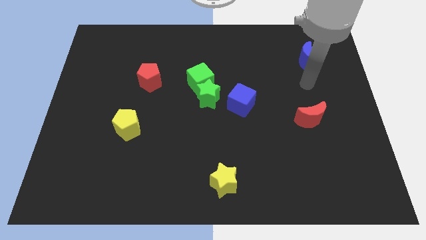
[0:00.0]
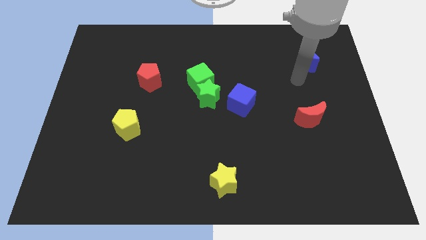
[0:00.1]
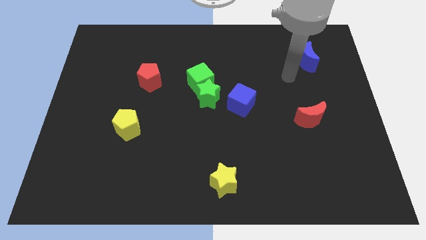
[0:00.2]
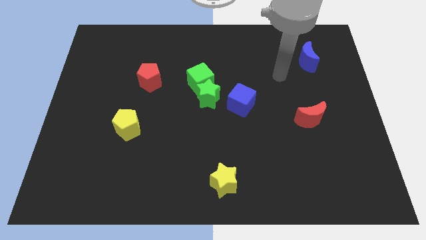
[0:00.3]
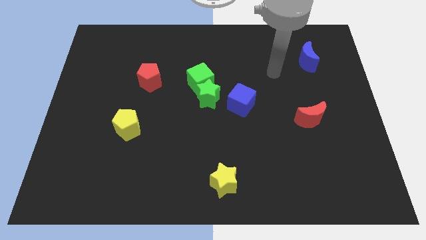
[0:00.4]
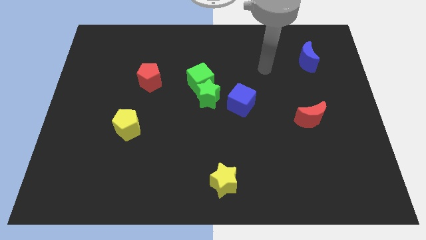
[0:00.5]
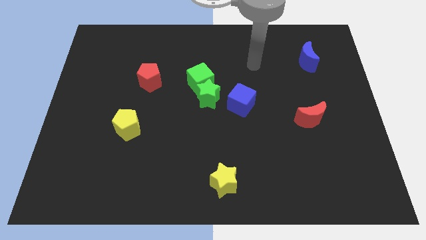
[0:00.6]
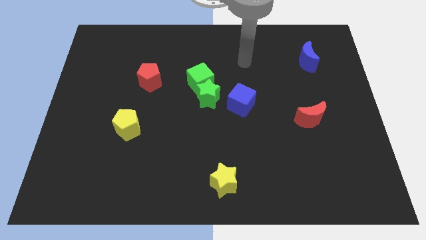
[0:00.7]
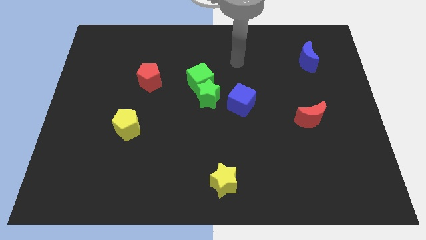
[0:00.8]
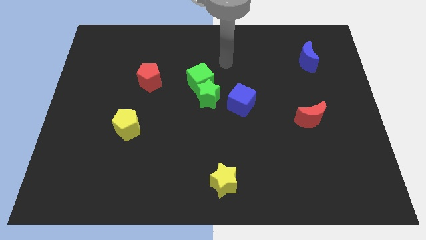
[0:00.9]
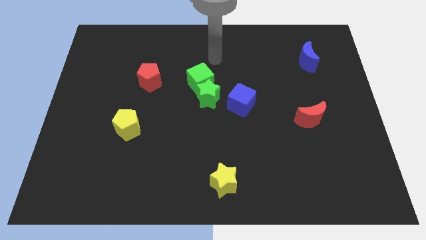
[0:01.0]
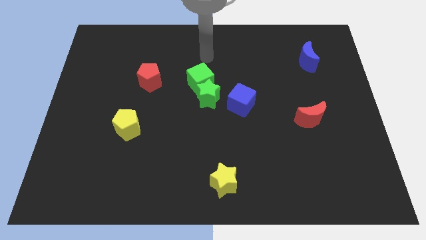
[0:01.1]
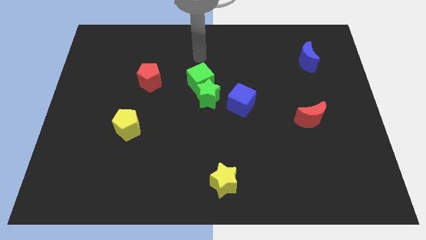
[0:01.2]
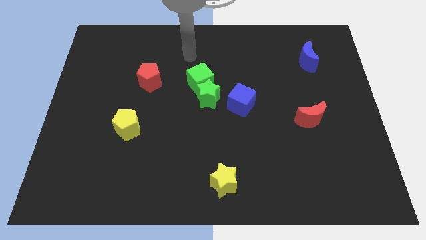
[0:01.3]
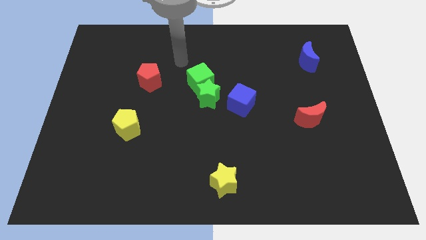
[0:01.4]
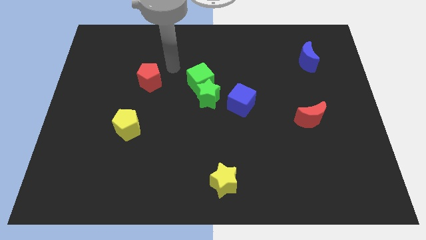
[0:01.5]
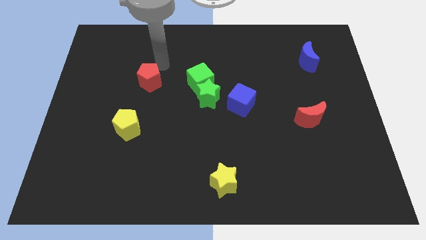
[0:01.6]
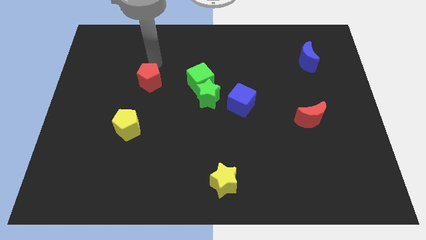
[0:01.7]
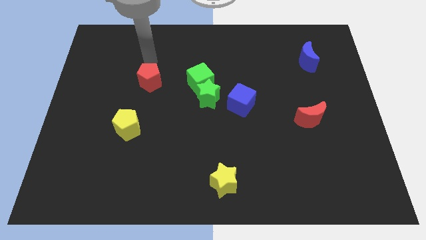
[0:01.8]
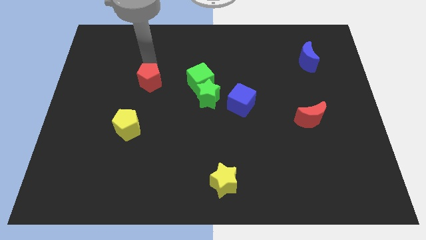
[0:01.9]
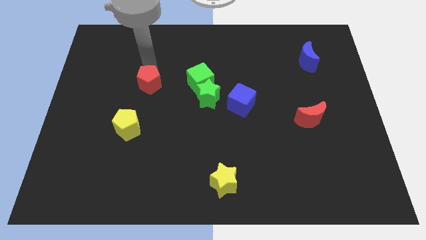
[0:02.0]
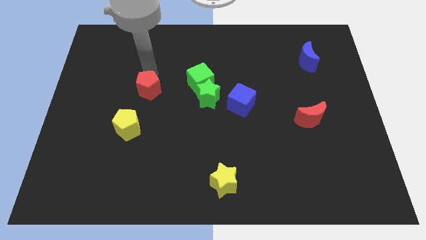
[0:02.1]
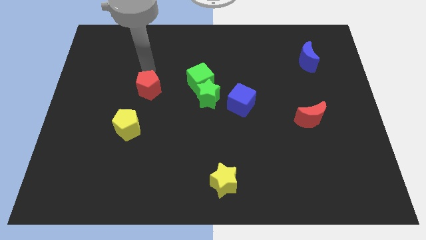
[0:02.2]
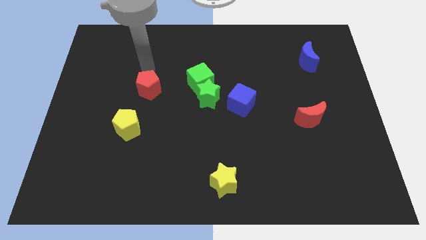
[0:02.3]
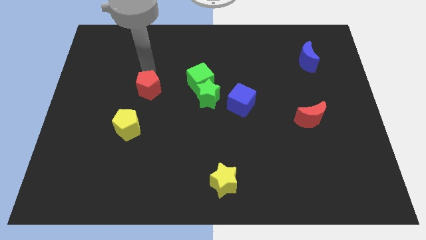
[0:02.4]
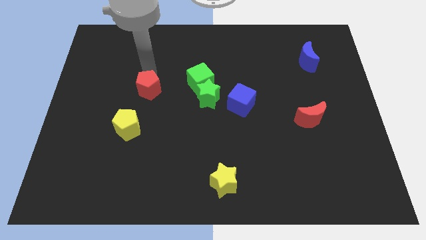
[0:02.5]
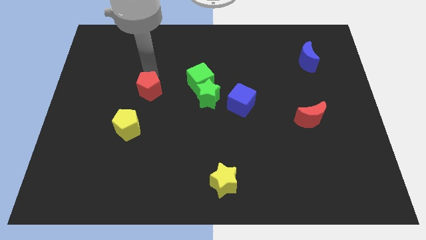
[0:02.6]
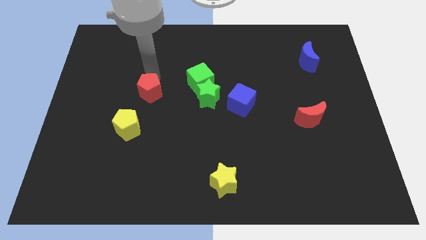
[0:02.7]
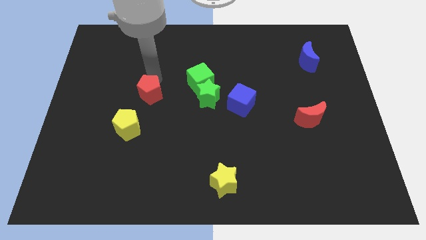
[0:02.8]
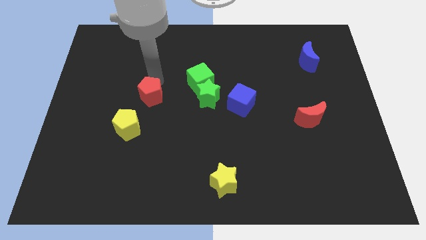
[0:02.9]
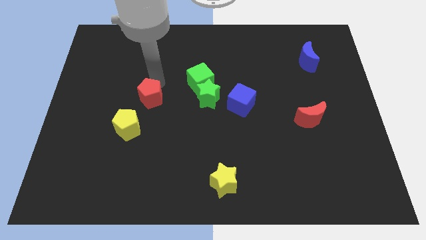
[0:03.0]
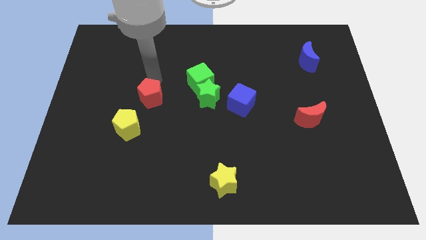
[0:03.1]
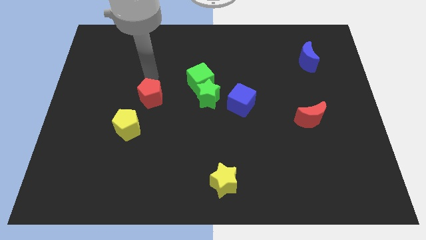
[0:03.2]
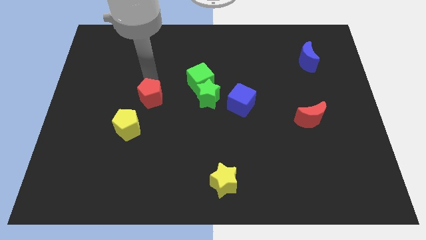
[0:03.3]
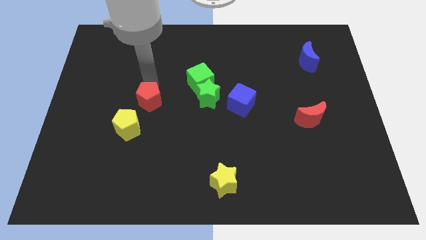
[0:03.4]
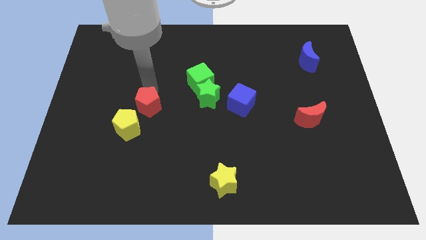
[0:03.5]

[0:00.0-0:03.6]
push the red pentagon somewhat downwards

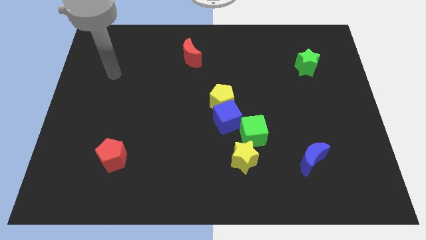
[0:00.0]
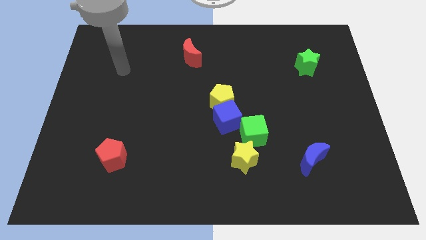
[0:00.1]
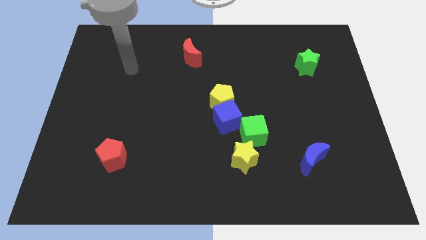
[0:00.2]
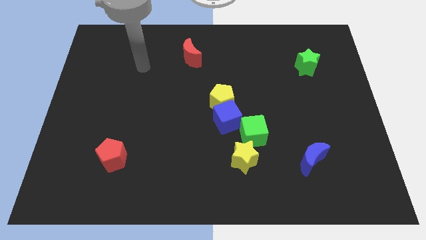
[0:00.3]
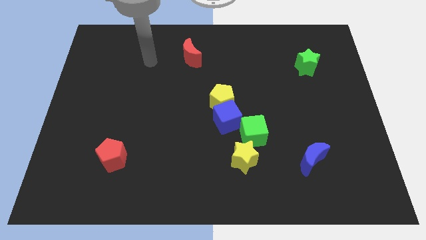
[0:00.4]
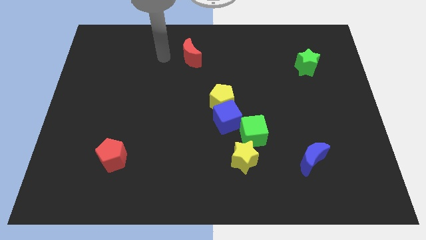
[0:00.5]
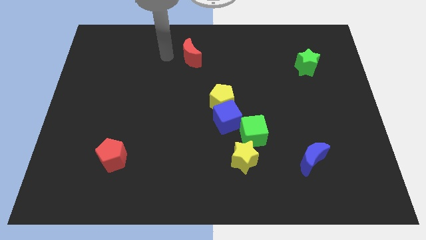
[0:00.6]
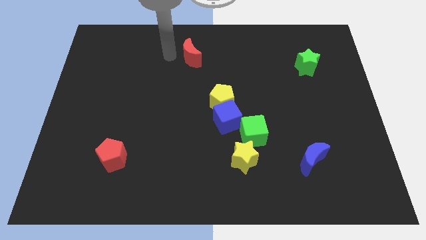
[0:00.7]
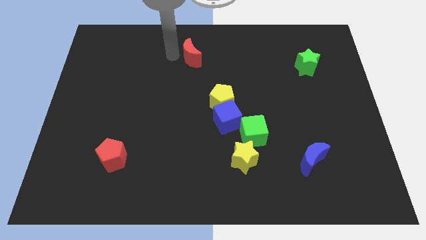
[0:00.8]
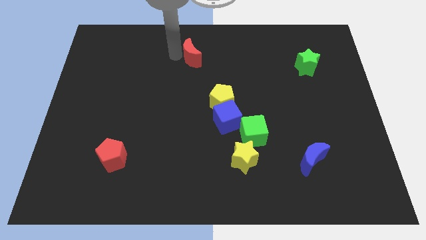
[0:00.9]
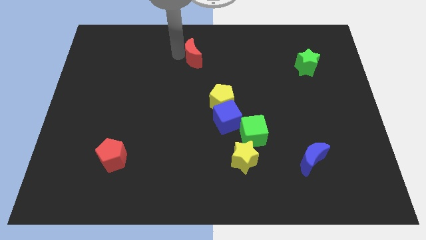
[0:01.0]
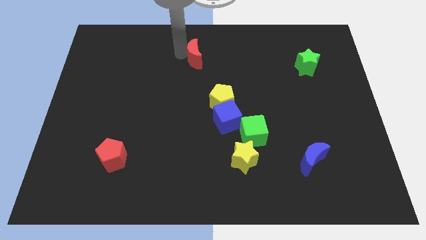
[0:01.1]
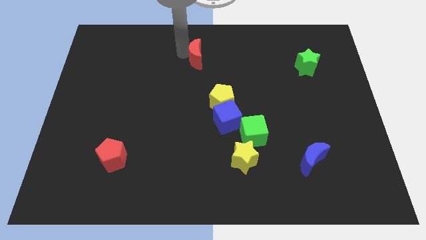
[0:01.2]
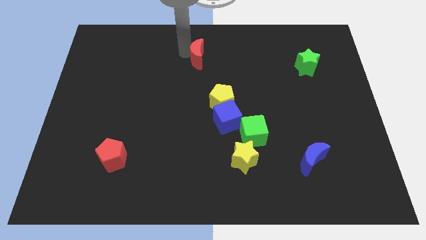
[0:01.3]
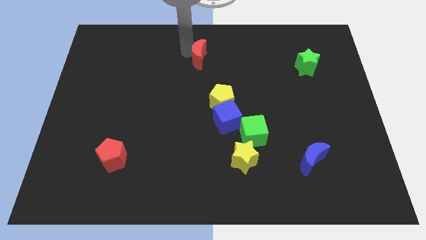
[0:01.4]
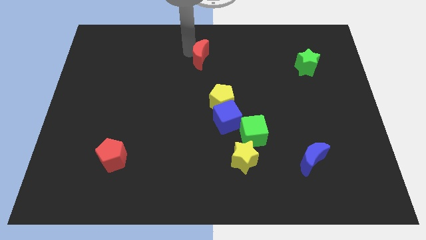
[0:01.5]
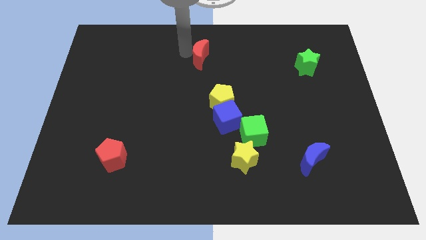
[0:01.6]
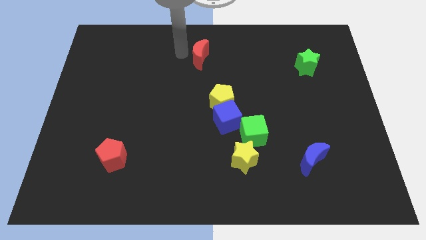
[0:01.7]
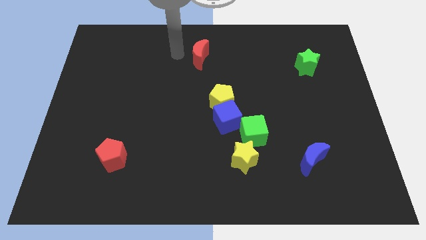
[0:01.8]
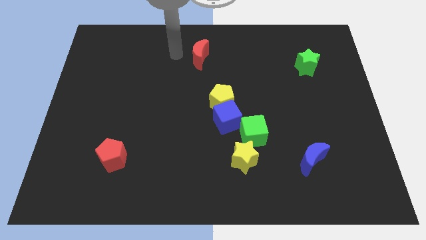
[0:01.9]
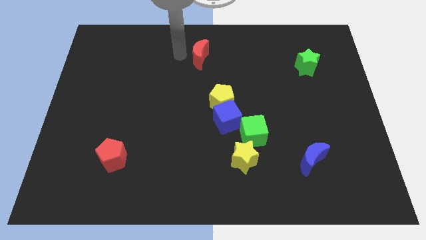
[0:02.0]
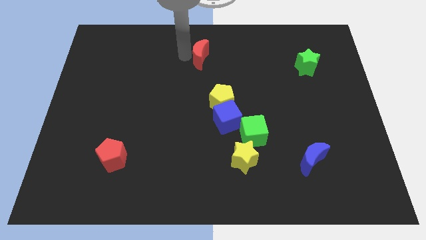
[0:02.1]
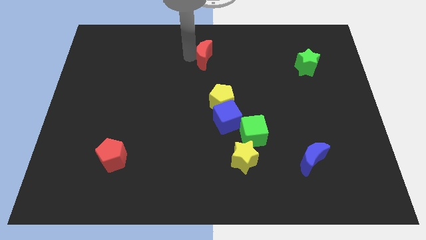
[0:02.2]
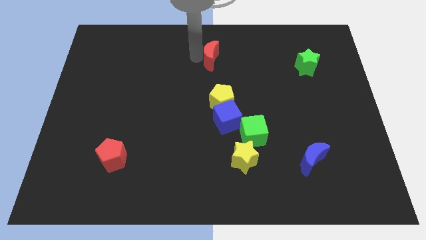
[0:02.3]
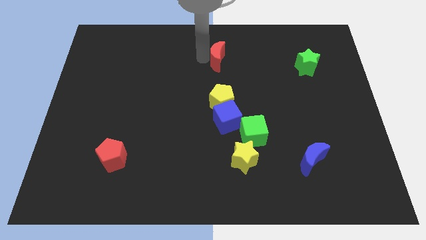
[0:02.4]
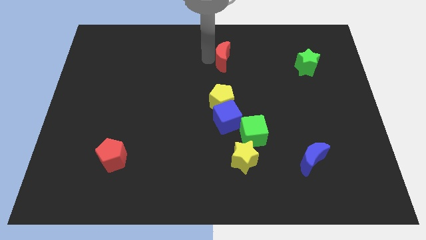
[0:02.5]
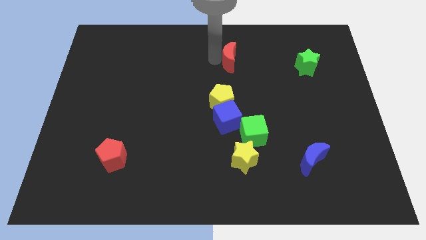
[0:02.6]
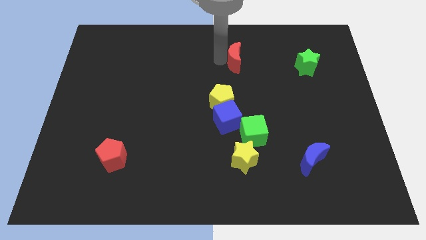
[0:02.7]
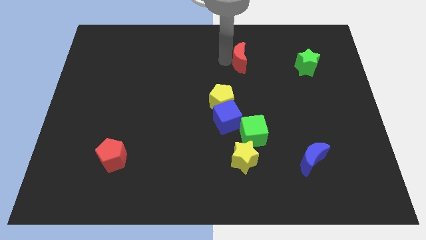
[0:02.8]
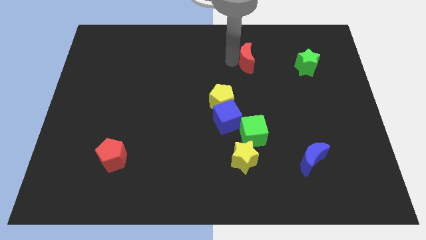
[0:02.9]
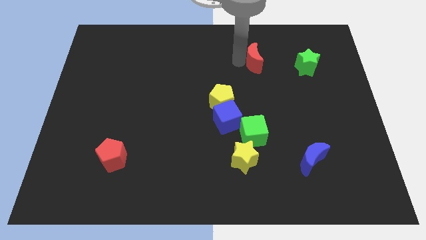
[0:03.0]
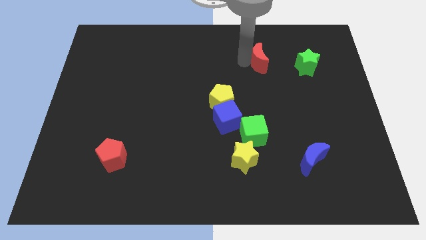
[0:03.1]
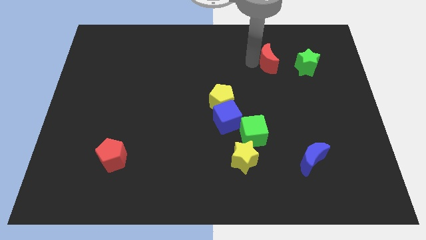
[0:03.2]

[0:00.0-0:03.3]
push the red moon to the right

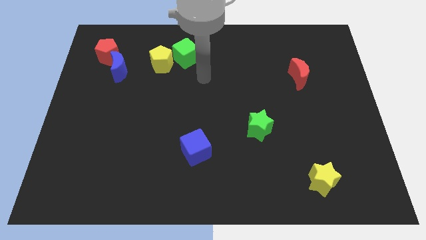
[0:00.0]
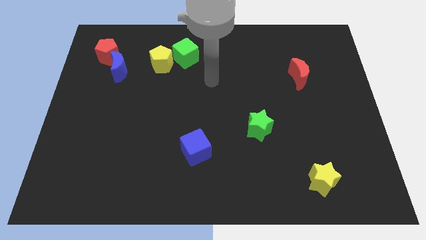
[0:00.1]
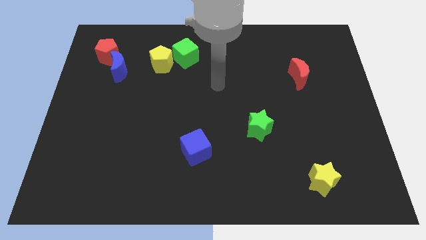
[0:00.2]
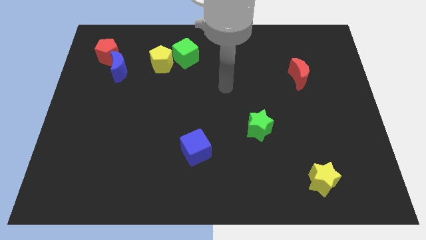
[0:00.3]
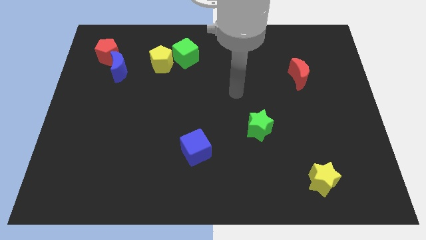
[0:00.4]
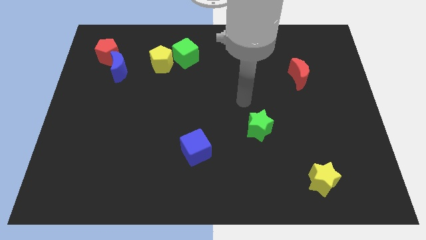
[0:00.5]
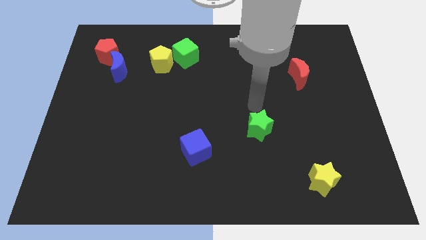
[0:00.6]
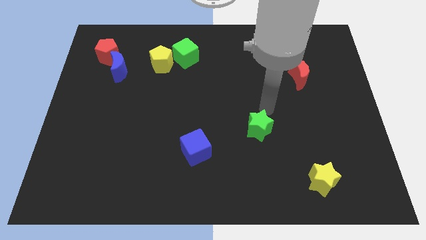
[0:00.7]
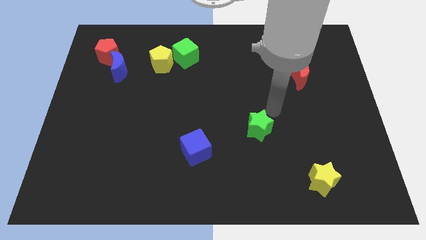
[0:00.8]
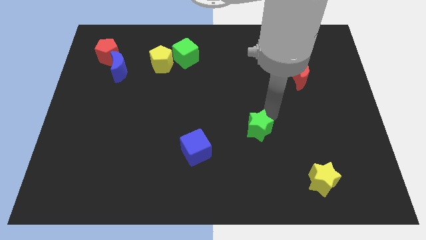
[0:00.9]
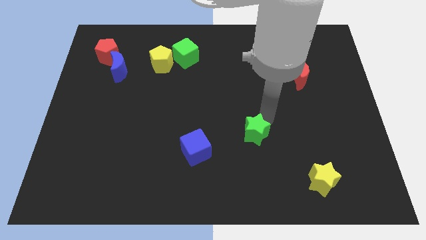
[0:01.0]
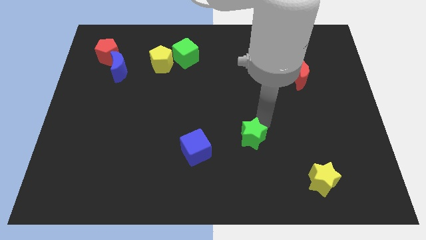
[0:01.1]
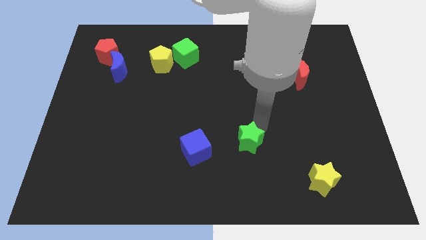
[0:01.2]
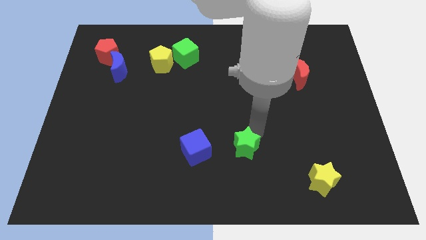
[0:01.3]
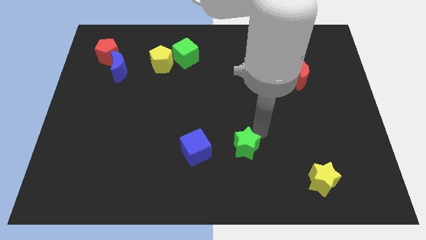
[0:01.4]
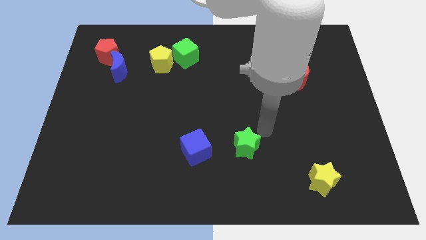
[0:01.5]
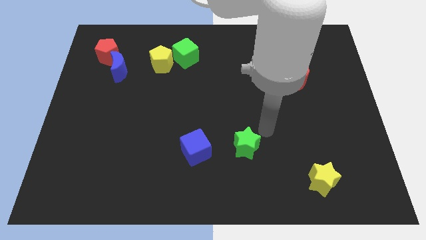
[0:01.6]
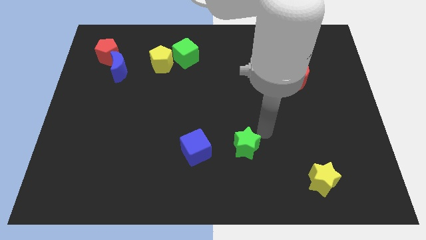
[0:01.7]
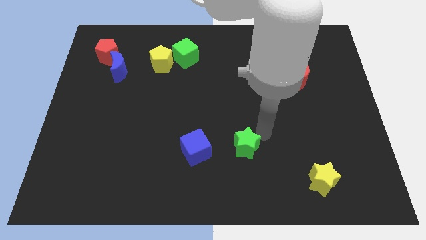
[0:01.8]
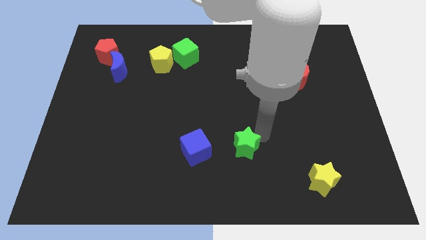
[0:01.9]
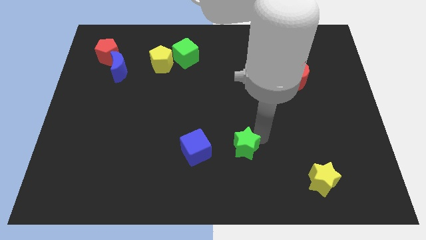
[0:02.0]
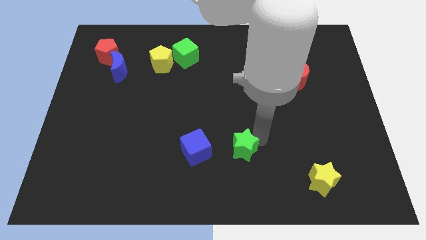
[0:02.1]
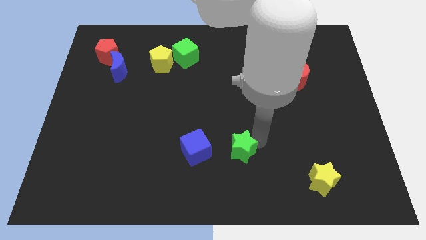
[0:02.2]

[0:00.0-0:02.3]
slightly move the green star diagonally down and left
